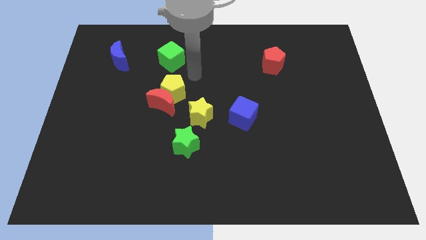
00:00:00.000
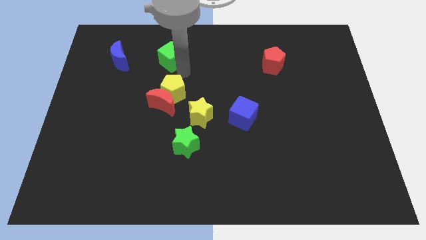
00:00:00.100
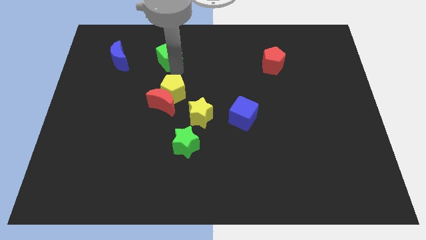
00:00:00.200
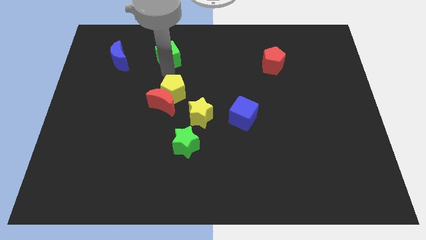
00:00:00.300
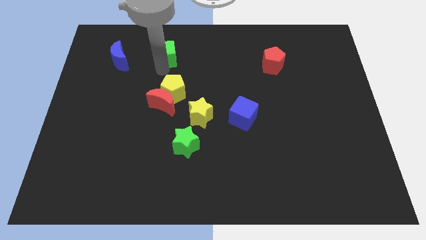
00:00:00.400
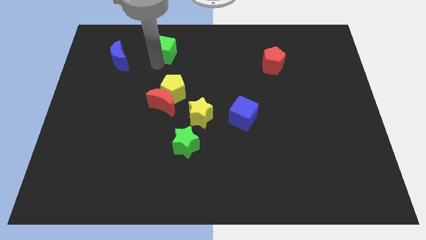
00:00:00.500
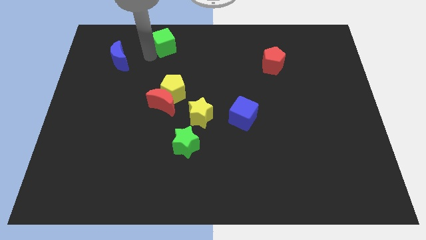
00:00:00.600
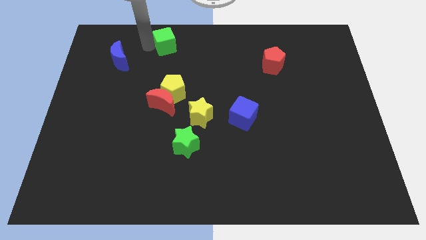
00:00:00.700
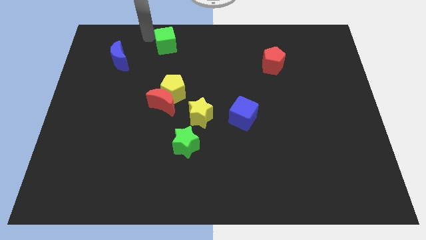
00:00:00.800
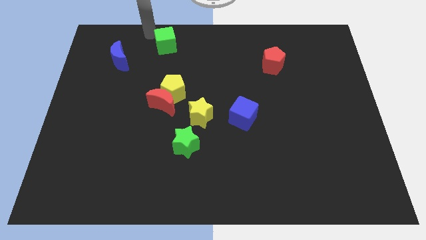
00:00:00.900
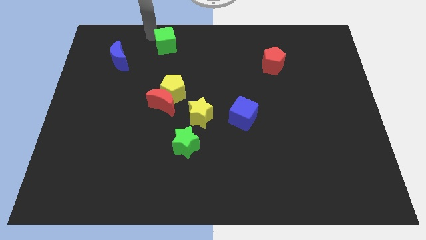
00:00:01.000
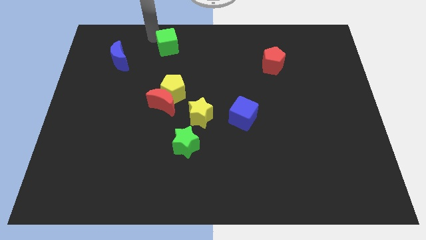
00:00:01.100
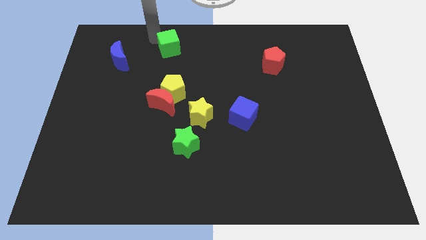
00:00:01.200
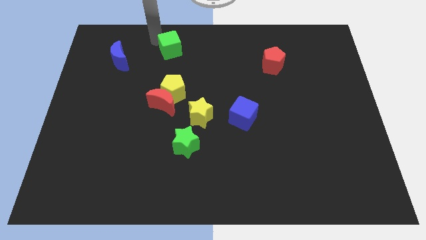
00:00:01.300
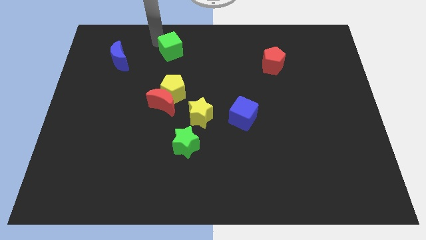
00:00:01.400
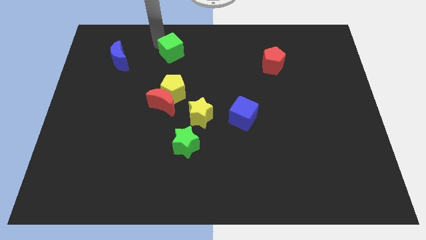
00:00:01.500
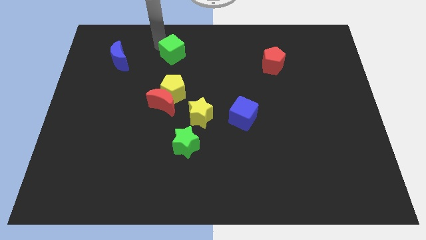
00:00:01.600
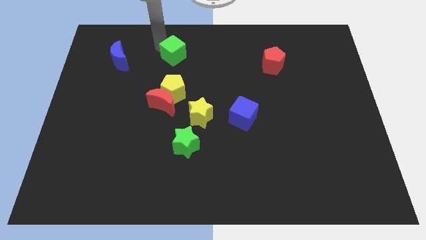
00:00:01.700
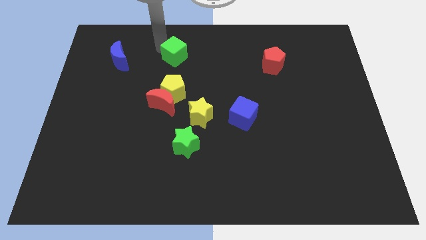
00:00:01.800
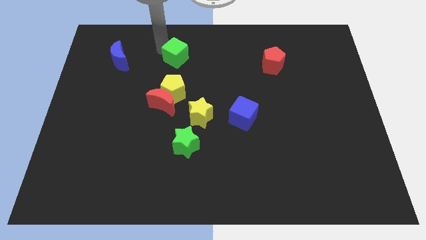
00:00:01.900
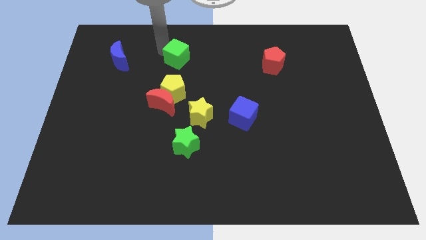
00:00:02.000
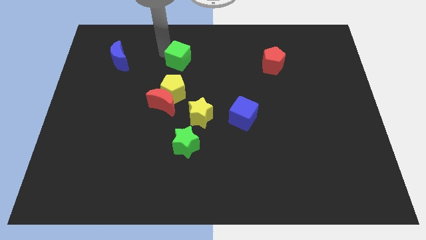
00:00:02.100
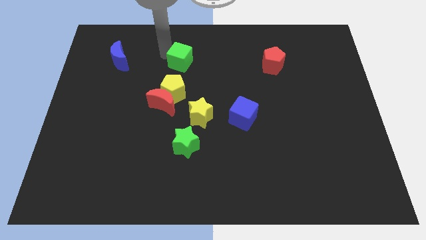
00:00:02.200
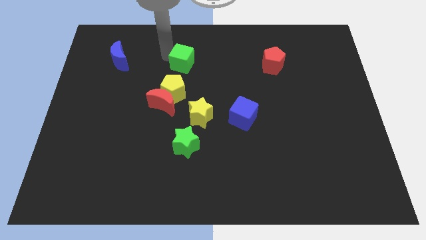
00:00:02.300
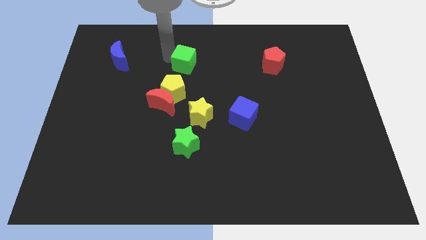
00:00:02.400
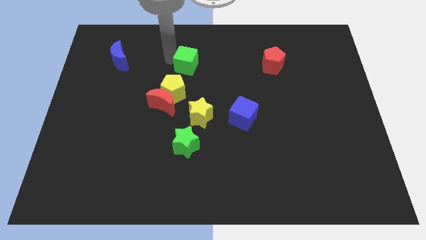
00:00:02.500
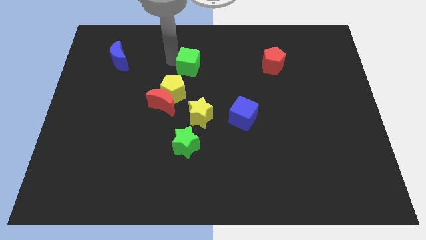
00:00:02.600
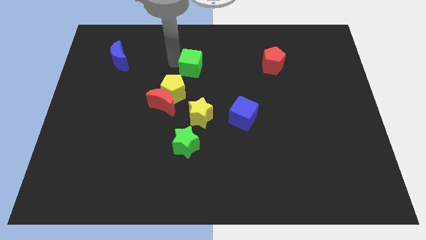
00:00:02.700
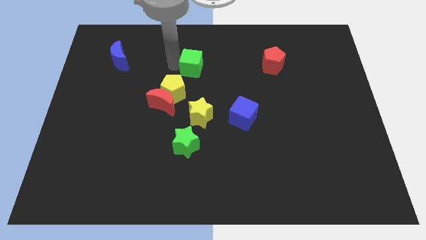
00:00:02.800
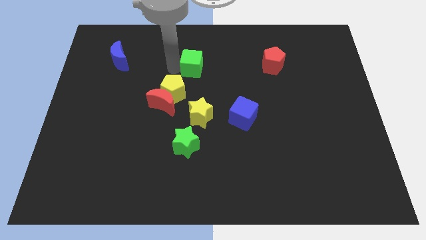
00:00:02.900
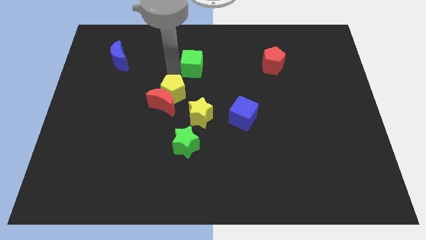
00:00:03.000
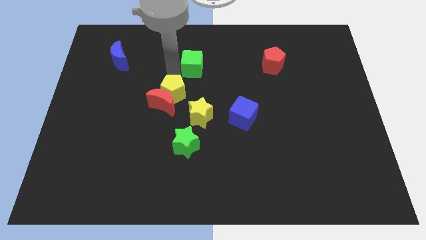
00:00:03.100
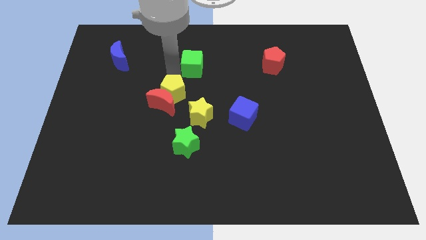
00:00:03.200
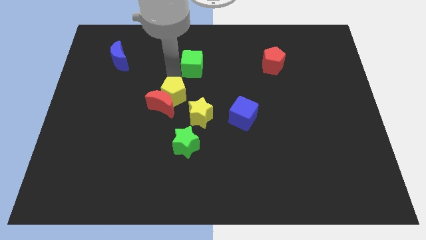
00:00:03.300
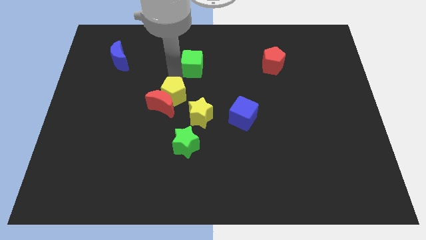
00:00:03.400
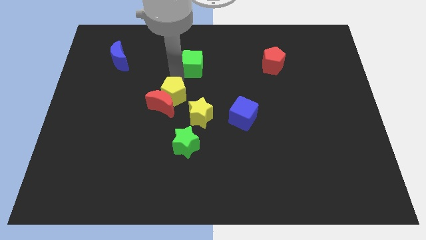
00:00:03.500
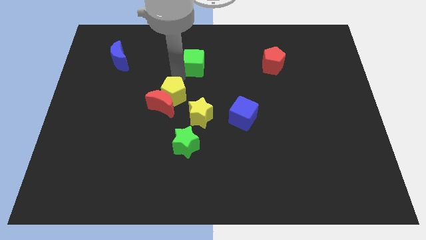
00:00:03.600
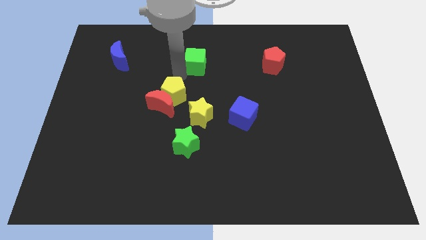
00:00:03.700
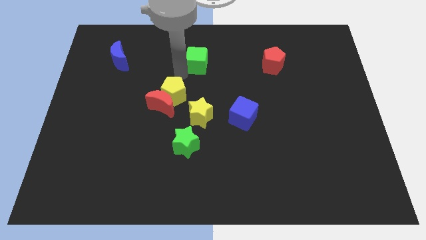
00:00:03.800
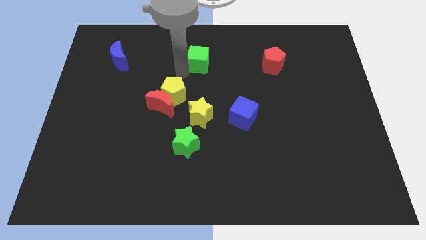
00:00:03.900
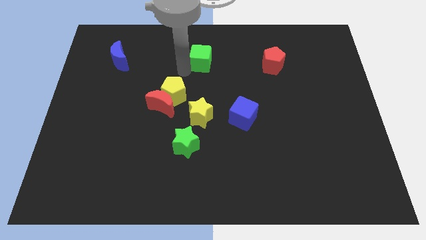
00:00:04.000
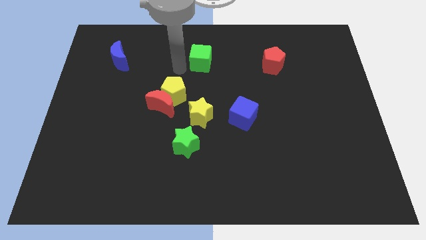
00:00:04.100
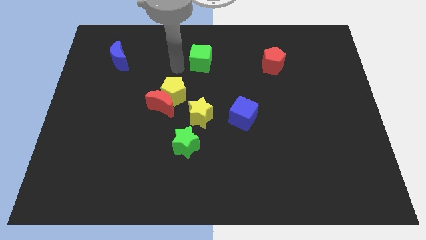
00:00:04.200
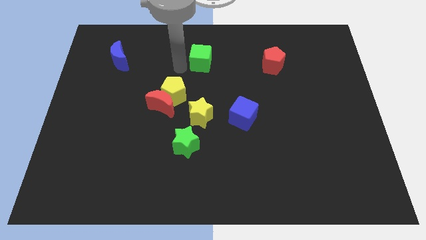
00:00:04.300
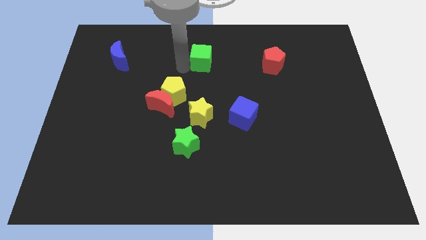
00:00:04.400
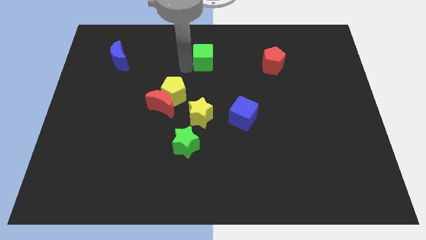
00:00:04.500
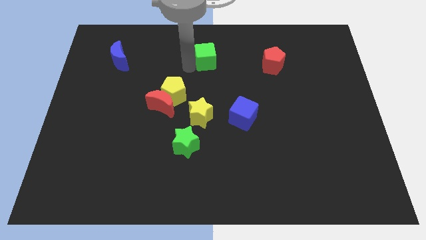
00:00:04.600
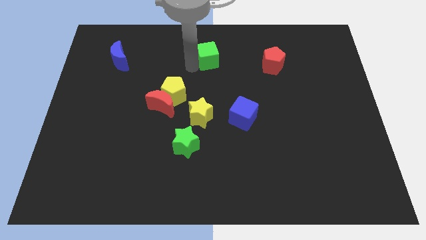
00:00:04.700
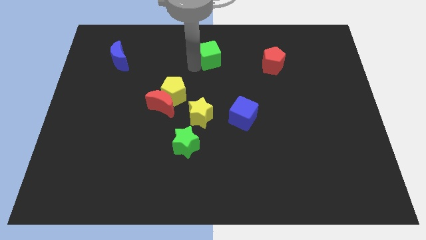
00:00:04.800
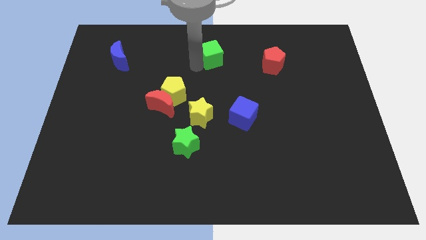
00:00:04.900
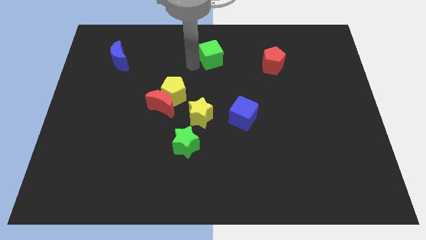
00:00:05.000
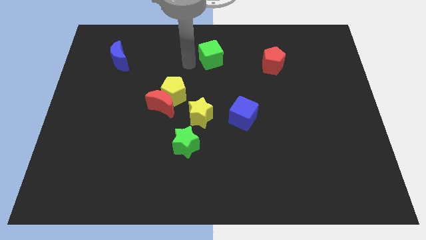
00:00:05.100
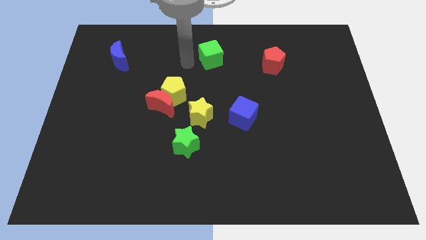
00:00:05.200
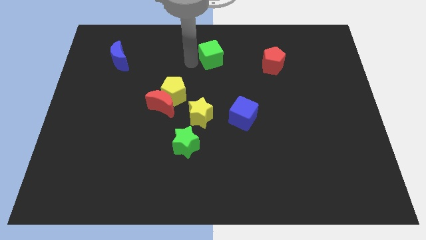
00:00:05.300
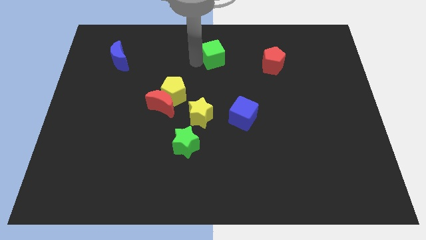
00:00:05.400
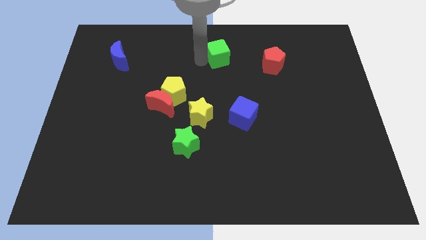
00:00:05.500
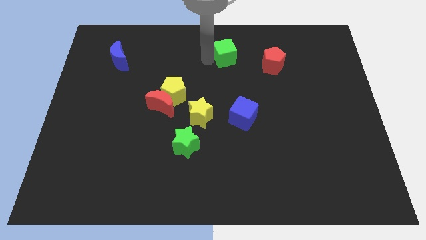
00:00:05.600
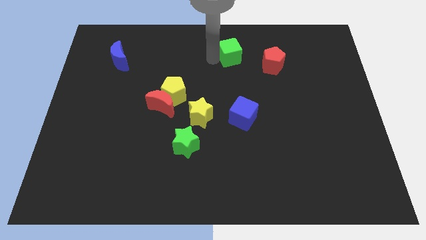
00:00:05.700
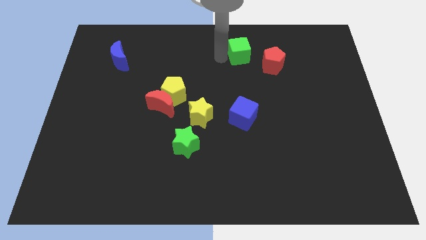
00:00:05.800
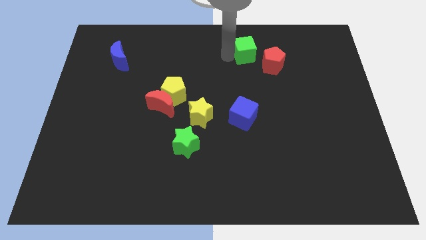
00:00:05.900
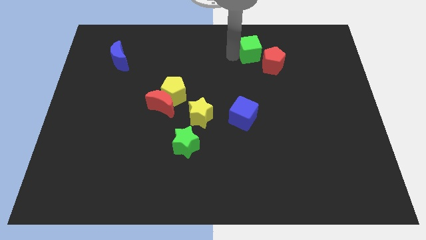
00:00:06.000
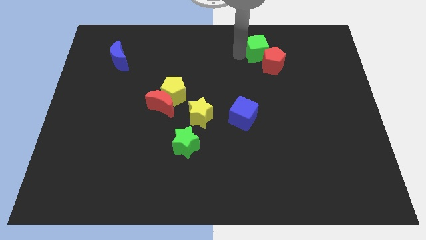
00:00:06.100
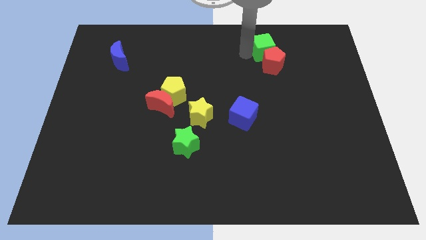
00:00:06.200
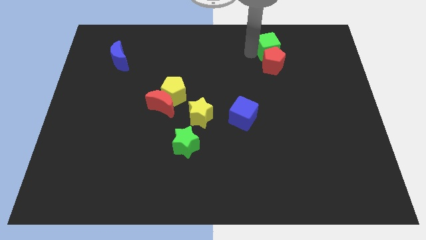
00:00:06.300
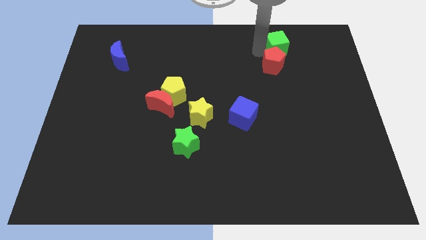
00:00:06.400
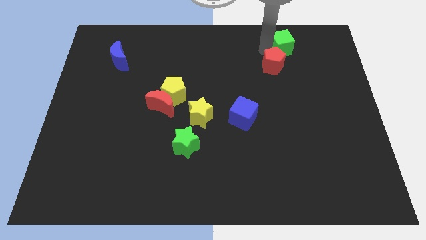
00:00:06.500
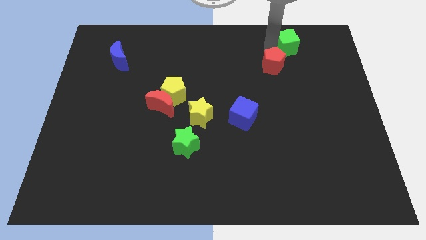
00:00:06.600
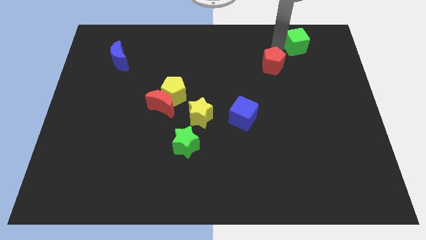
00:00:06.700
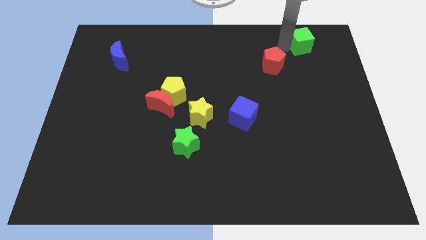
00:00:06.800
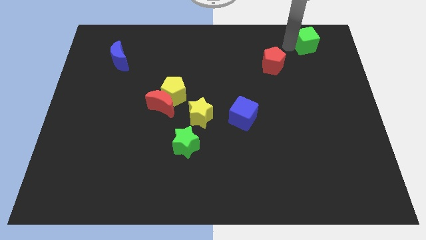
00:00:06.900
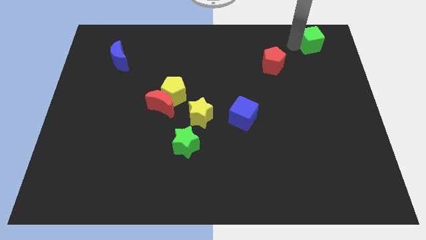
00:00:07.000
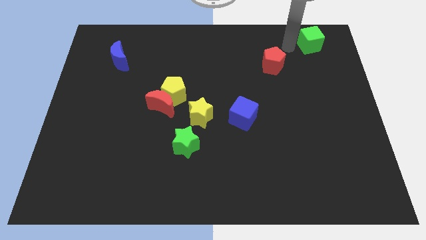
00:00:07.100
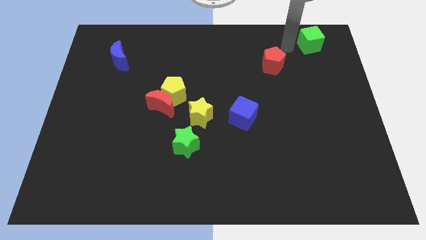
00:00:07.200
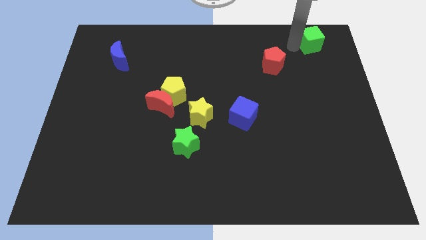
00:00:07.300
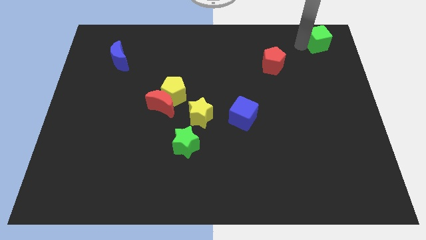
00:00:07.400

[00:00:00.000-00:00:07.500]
put the green cube to the upper right corner
